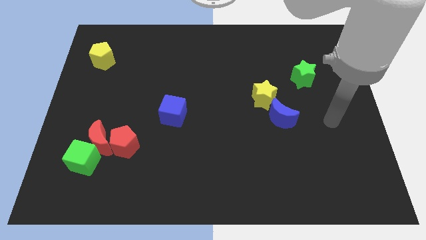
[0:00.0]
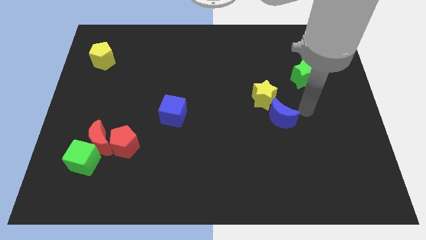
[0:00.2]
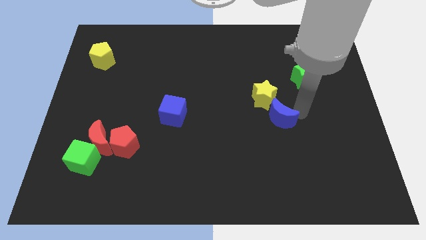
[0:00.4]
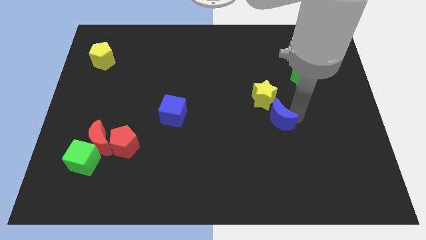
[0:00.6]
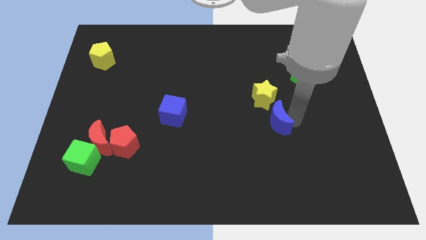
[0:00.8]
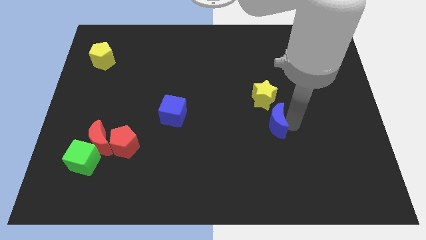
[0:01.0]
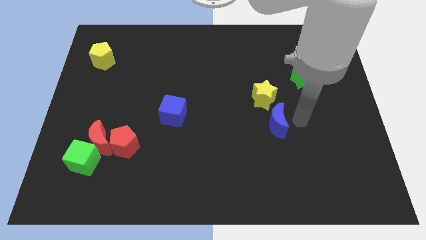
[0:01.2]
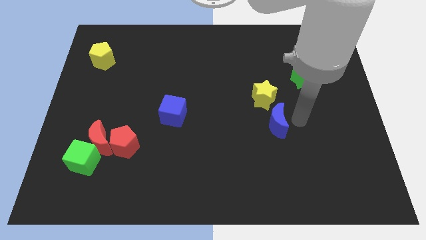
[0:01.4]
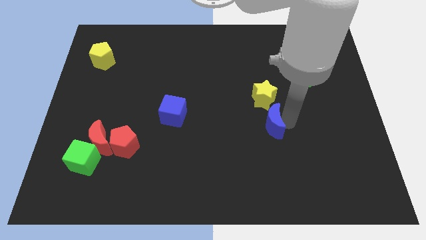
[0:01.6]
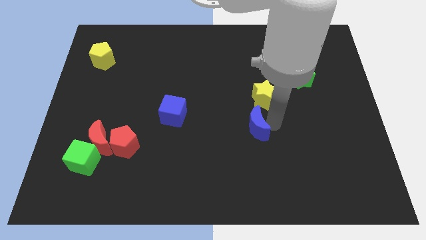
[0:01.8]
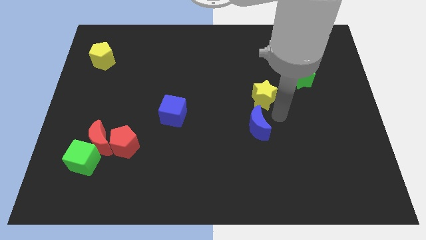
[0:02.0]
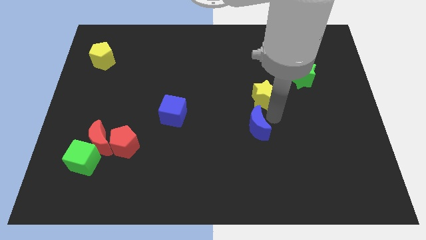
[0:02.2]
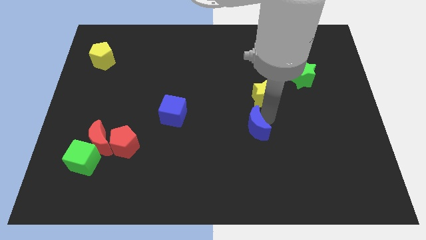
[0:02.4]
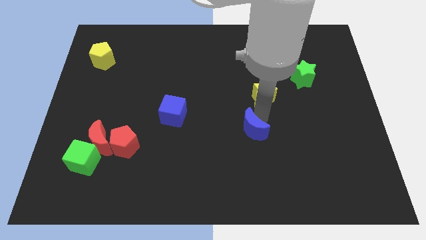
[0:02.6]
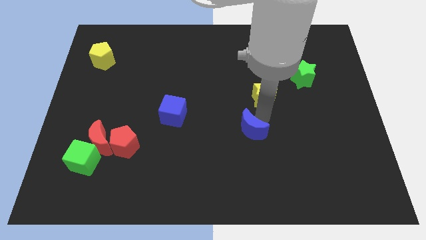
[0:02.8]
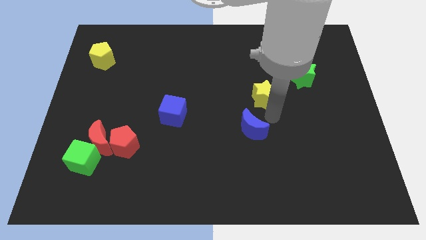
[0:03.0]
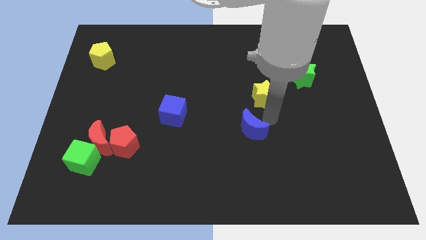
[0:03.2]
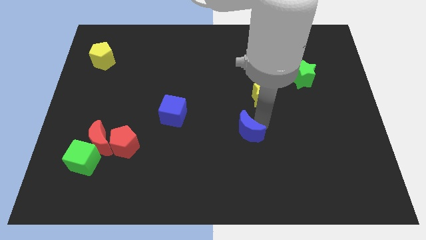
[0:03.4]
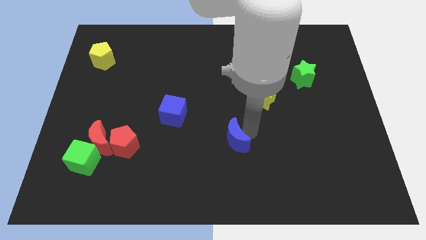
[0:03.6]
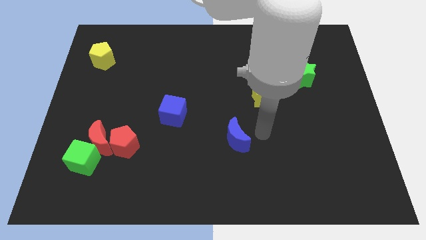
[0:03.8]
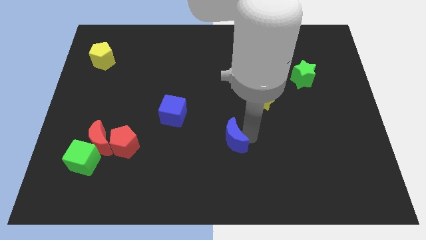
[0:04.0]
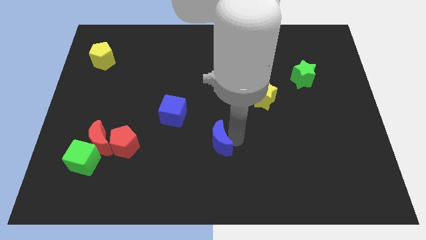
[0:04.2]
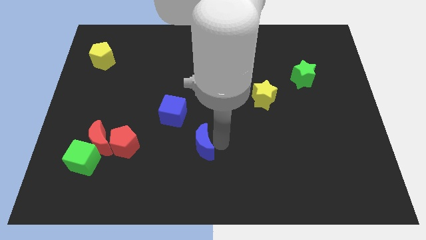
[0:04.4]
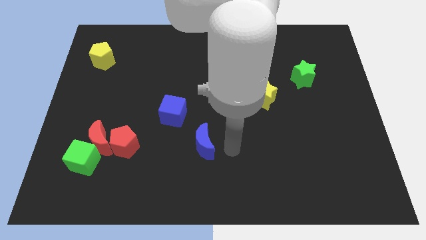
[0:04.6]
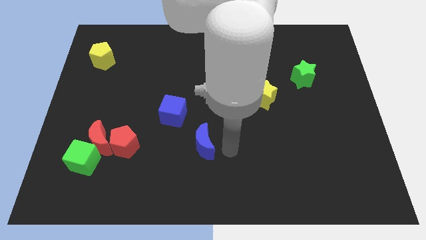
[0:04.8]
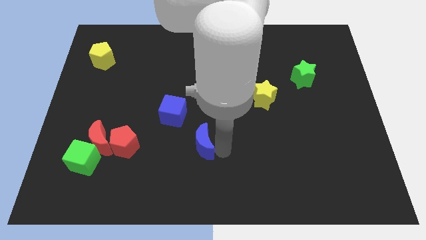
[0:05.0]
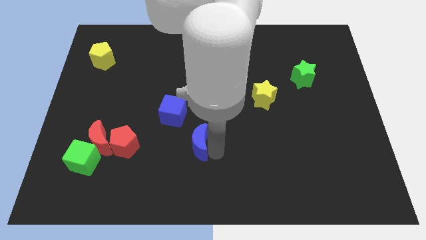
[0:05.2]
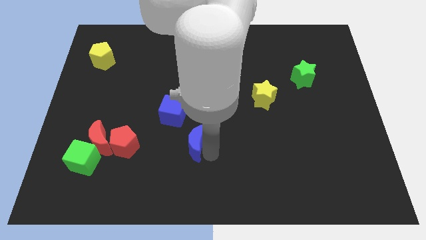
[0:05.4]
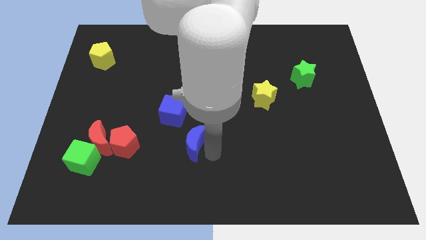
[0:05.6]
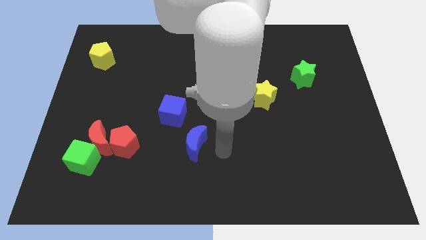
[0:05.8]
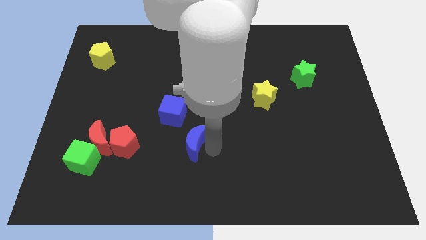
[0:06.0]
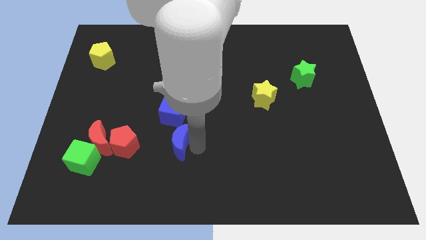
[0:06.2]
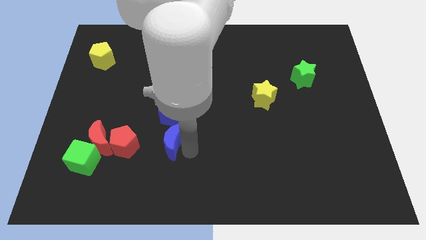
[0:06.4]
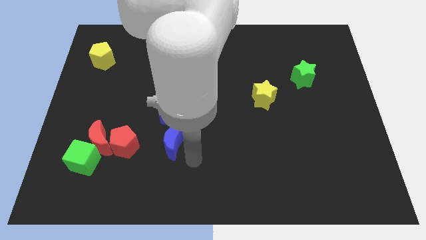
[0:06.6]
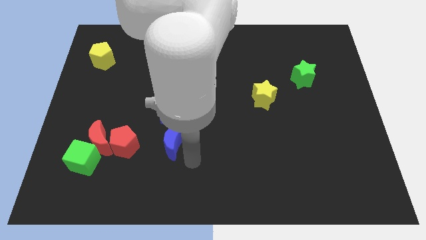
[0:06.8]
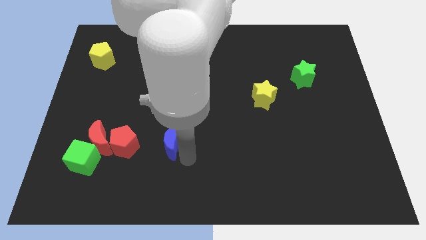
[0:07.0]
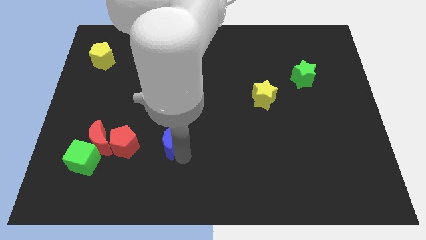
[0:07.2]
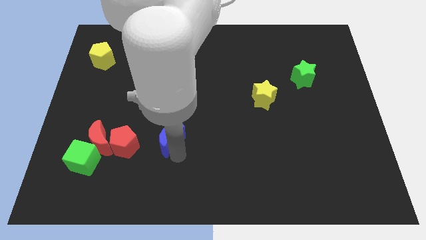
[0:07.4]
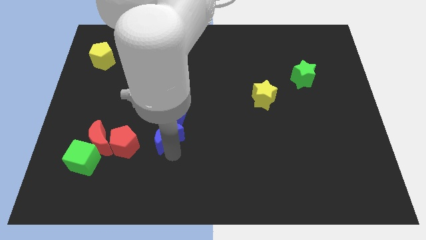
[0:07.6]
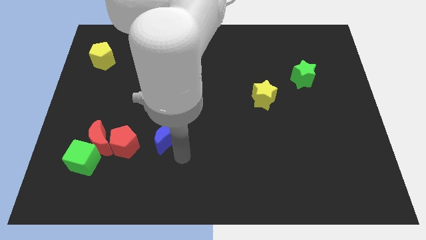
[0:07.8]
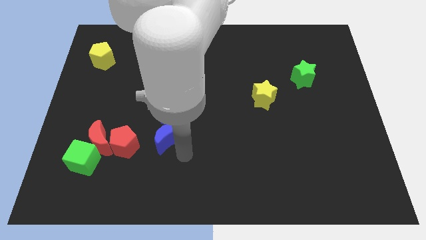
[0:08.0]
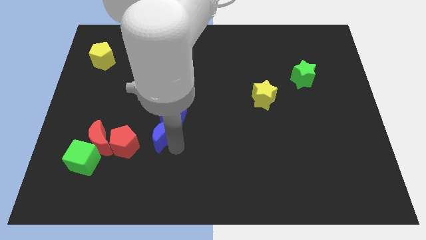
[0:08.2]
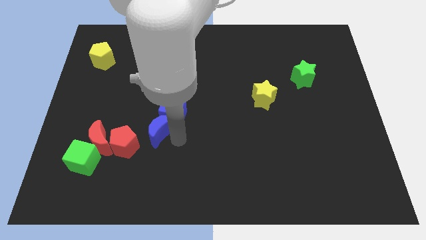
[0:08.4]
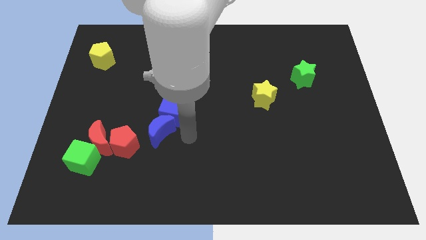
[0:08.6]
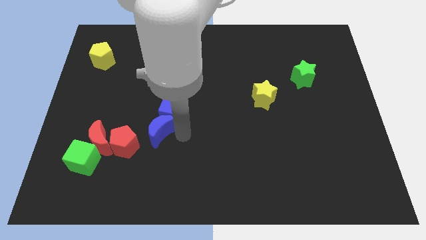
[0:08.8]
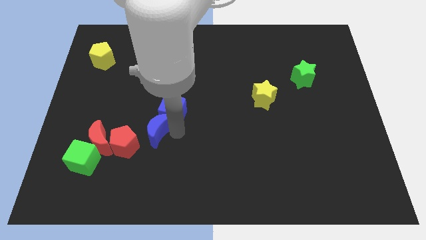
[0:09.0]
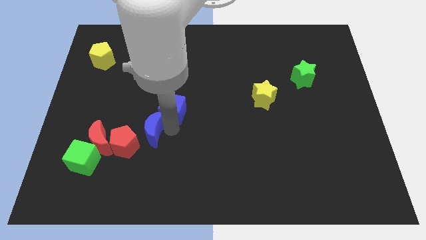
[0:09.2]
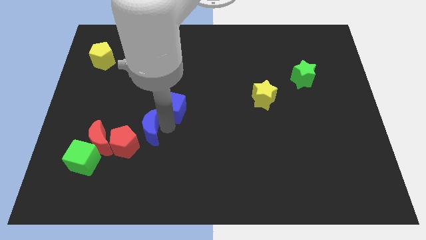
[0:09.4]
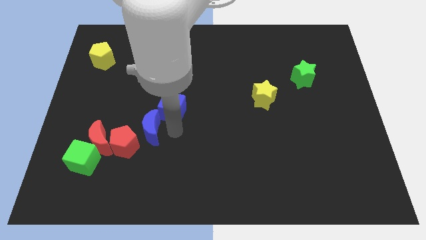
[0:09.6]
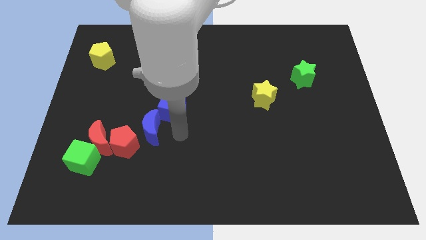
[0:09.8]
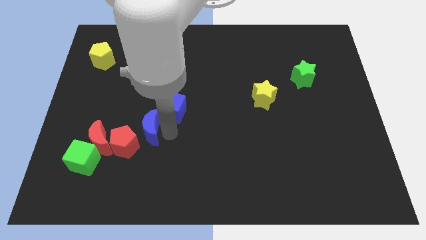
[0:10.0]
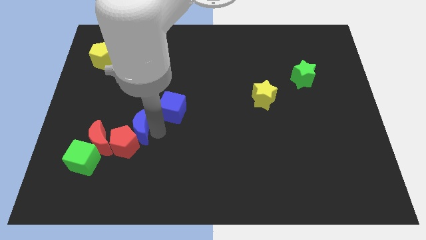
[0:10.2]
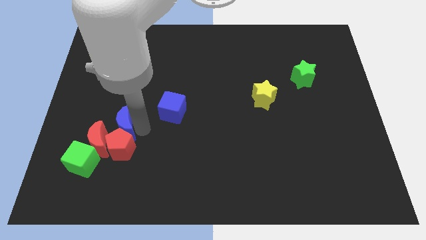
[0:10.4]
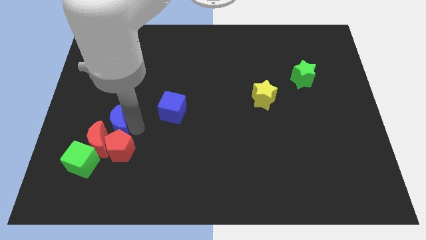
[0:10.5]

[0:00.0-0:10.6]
put the blue moon to the red moon

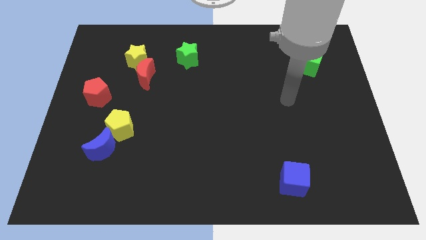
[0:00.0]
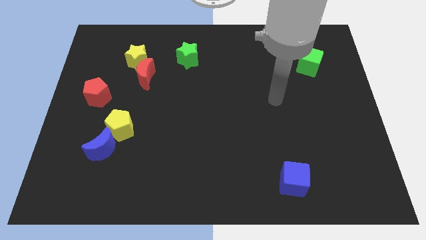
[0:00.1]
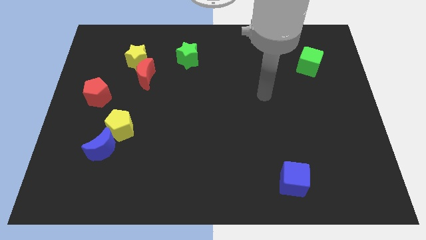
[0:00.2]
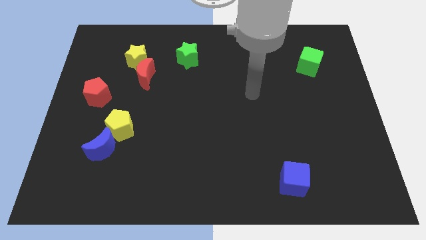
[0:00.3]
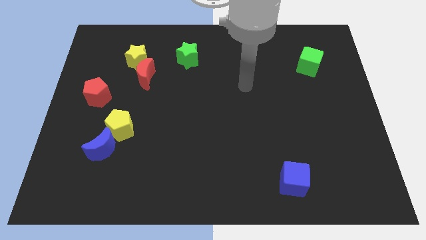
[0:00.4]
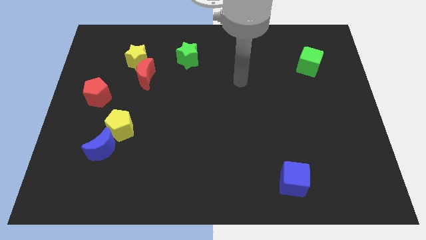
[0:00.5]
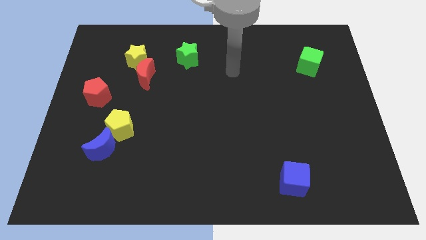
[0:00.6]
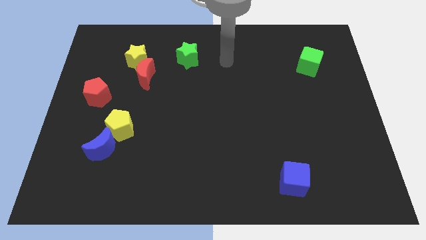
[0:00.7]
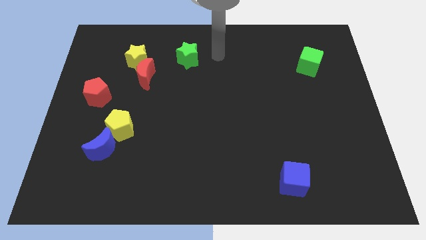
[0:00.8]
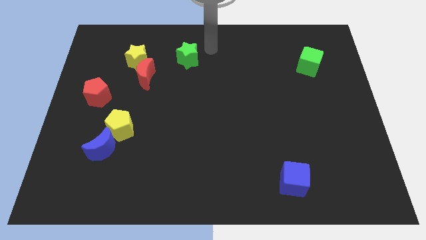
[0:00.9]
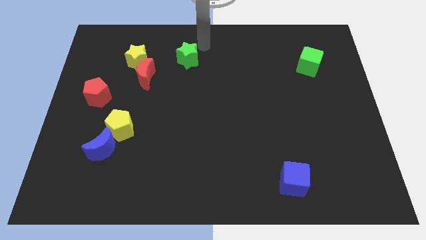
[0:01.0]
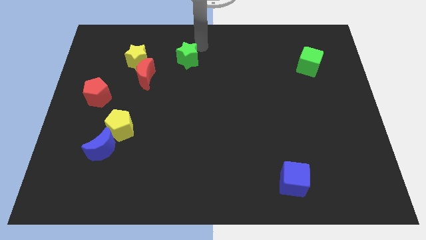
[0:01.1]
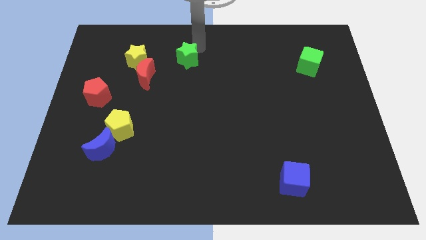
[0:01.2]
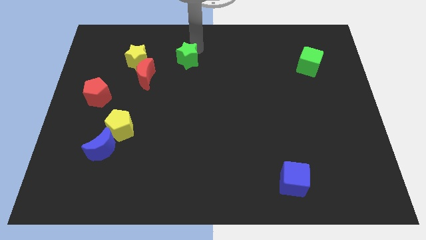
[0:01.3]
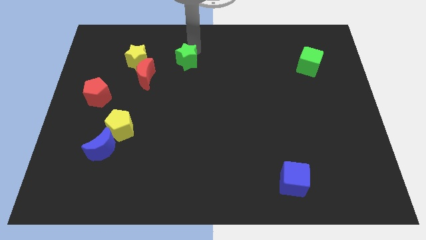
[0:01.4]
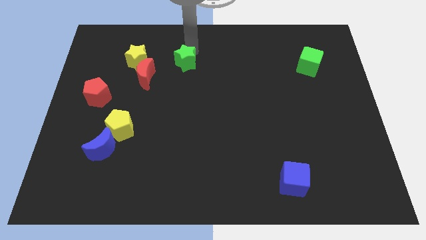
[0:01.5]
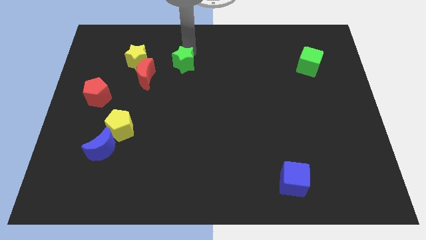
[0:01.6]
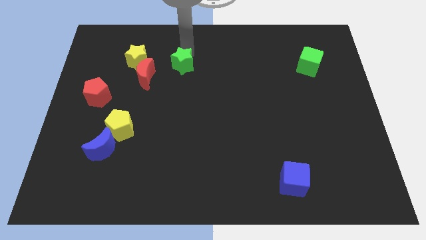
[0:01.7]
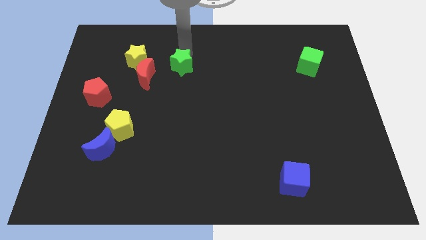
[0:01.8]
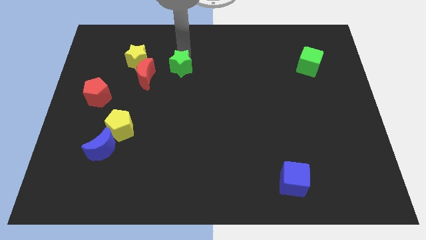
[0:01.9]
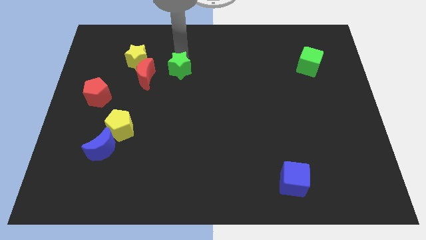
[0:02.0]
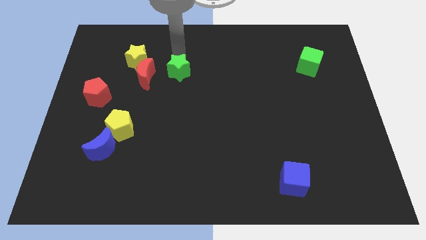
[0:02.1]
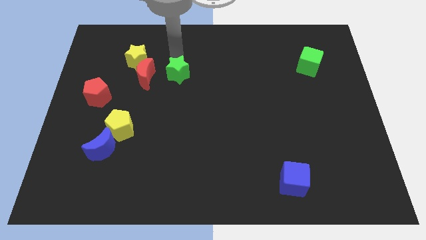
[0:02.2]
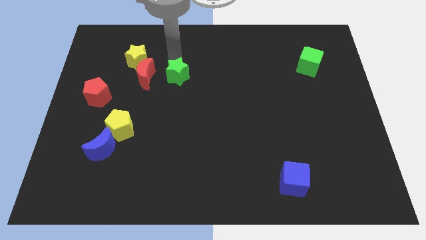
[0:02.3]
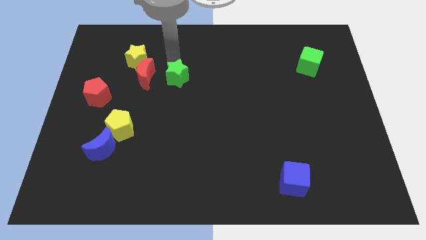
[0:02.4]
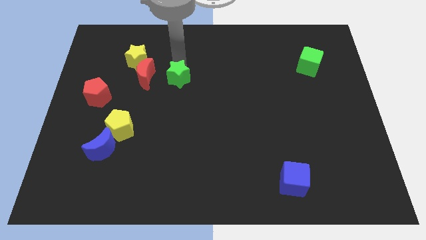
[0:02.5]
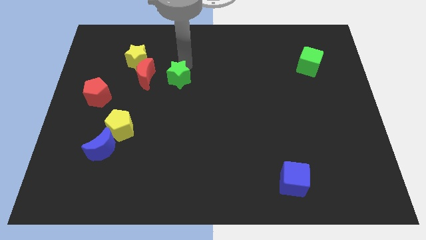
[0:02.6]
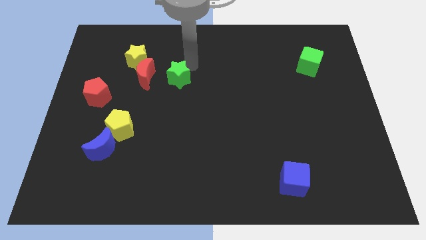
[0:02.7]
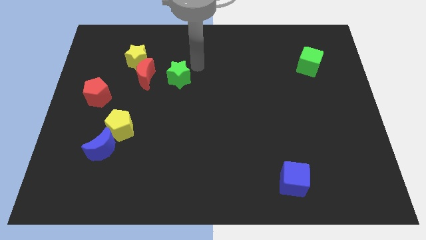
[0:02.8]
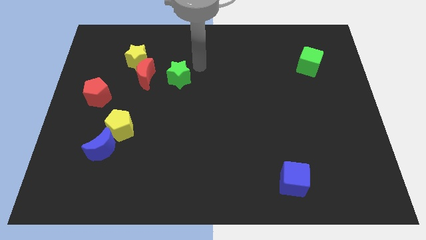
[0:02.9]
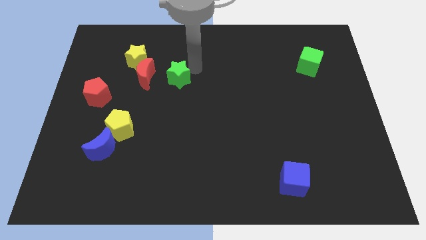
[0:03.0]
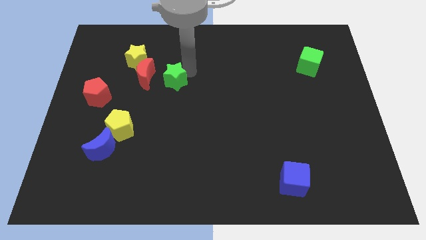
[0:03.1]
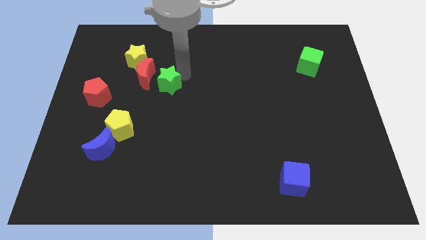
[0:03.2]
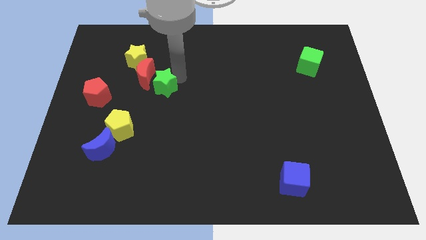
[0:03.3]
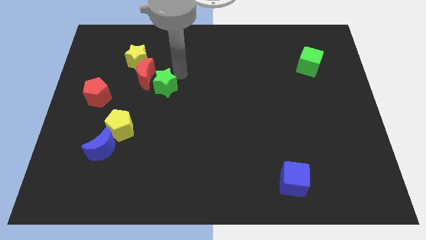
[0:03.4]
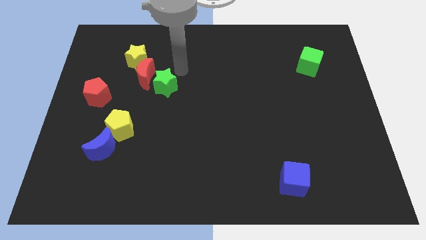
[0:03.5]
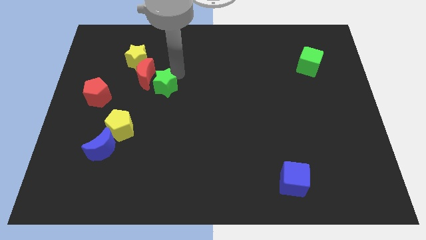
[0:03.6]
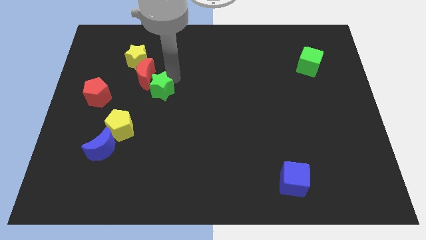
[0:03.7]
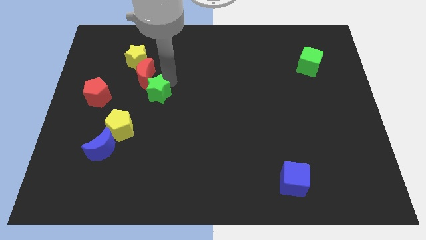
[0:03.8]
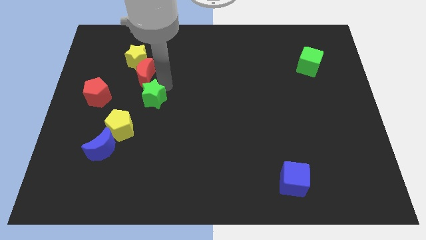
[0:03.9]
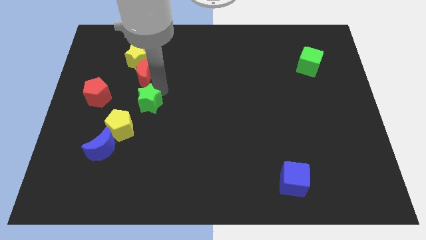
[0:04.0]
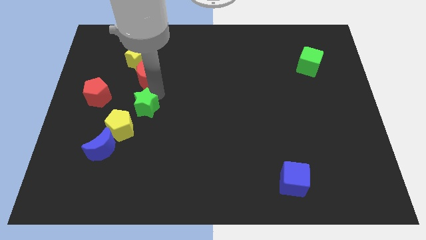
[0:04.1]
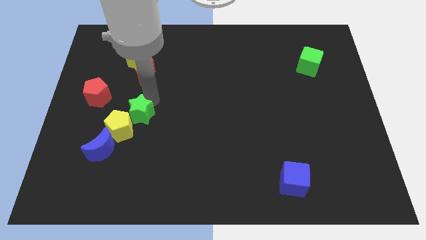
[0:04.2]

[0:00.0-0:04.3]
push the green star towards the yellow pentagon
